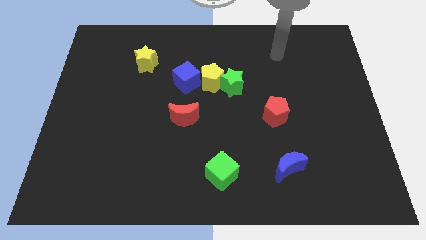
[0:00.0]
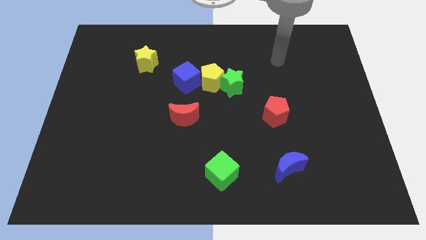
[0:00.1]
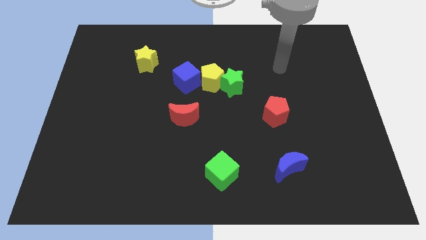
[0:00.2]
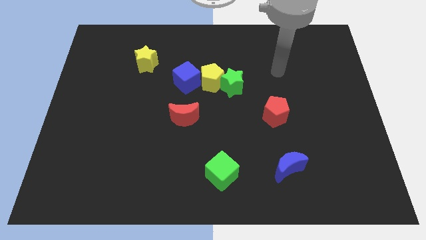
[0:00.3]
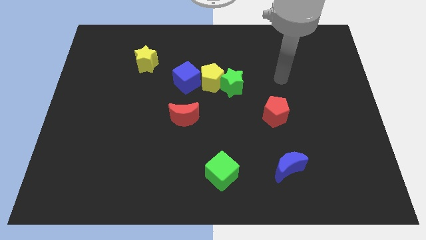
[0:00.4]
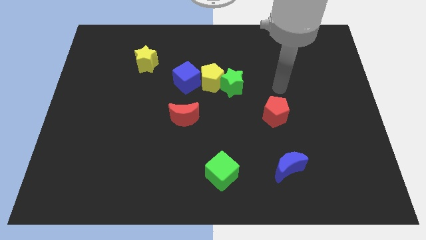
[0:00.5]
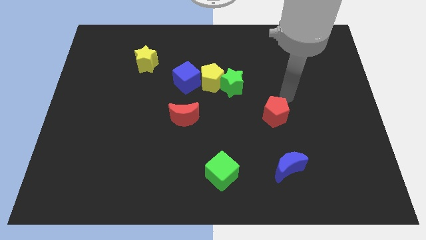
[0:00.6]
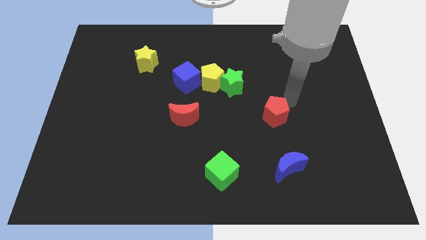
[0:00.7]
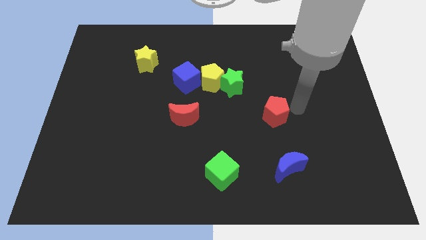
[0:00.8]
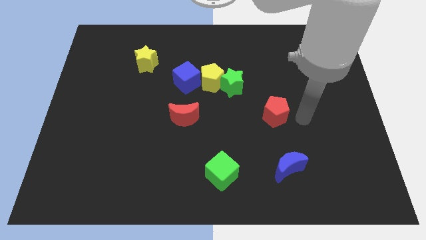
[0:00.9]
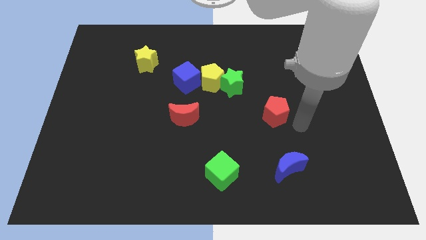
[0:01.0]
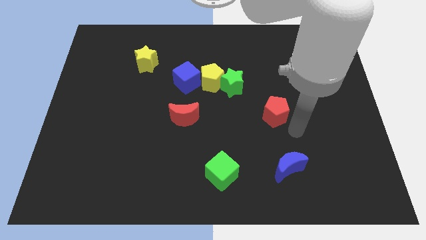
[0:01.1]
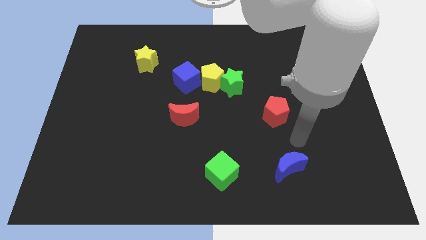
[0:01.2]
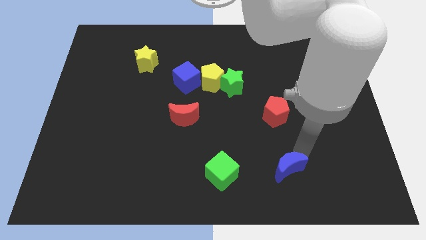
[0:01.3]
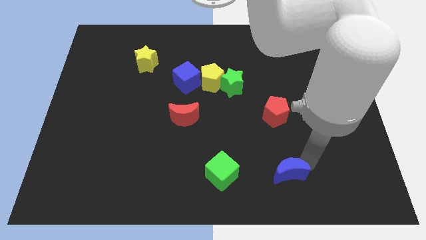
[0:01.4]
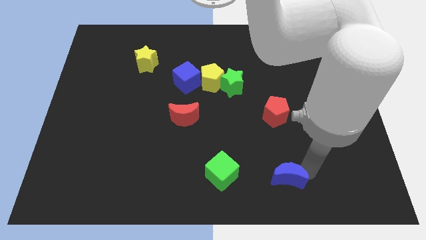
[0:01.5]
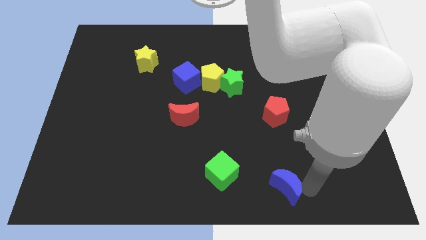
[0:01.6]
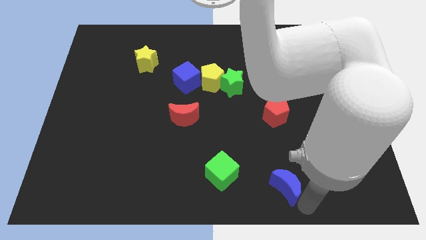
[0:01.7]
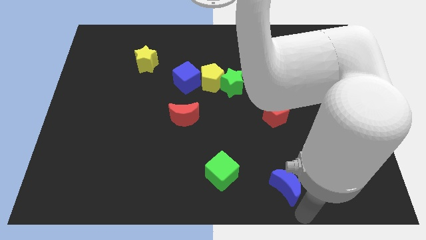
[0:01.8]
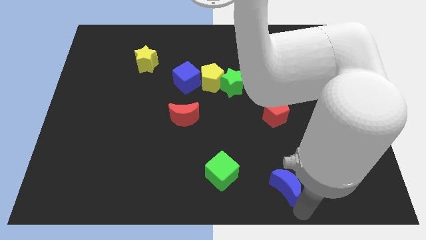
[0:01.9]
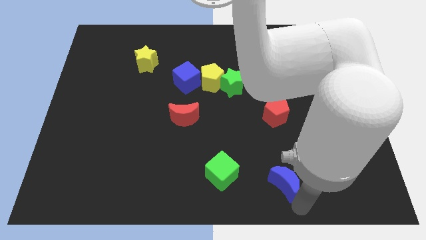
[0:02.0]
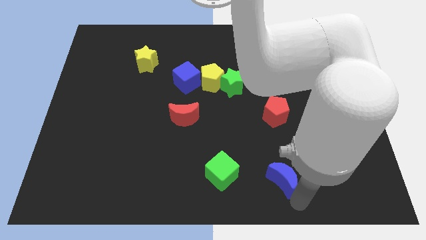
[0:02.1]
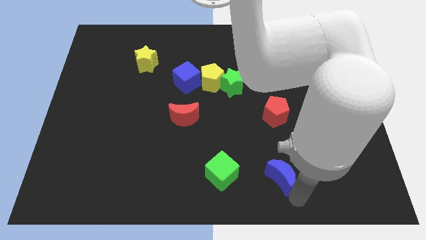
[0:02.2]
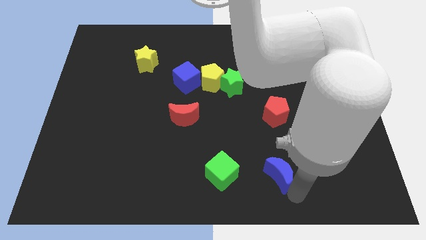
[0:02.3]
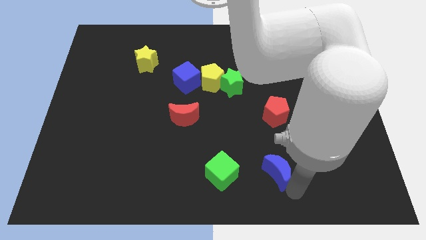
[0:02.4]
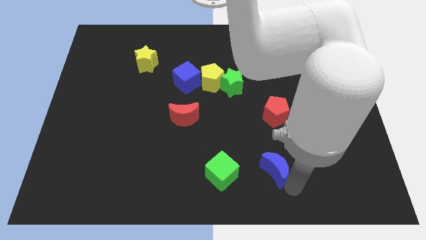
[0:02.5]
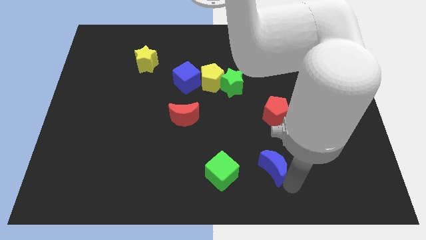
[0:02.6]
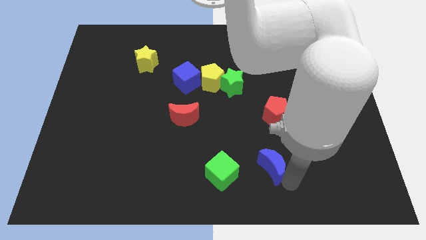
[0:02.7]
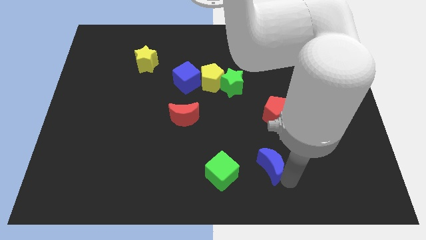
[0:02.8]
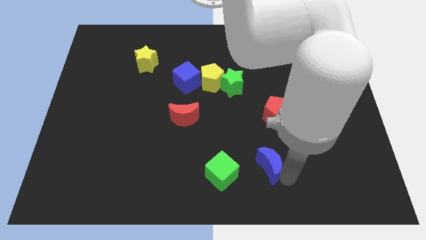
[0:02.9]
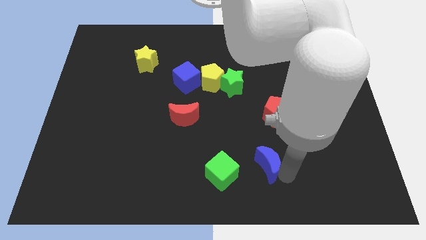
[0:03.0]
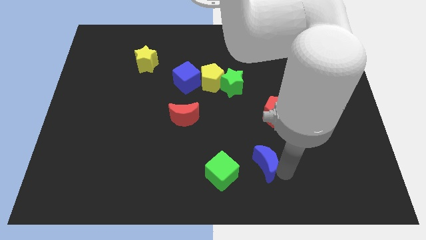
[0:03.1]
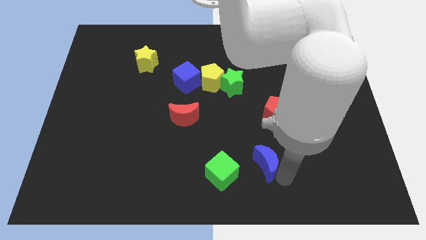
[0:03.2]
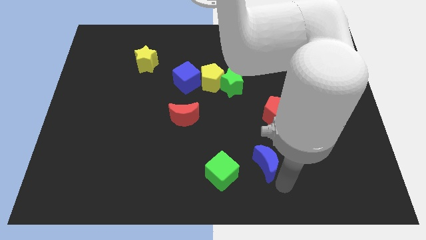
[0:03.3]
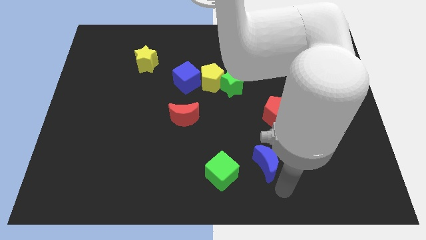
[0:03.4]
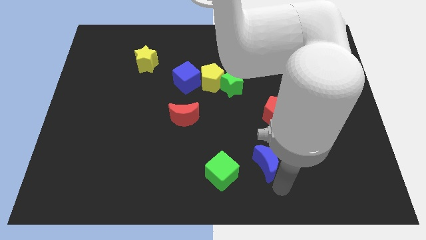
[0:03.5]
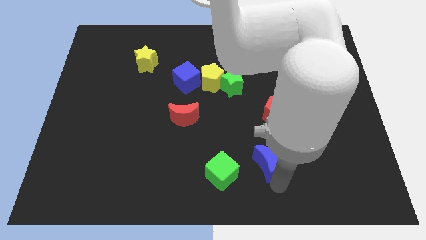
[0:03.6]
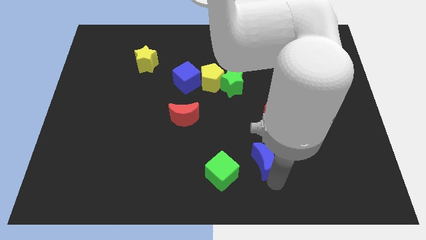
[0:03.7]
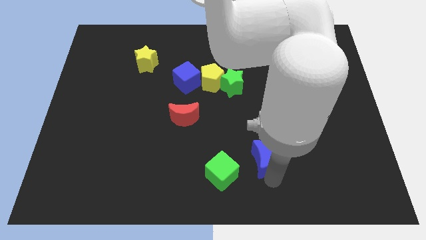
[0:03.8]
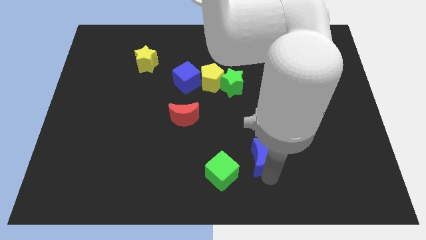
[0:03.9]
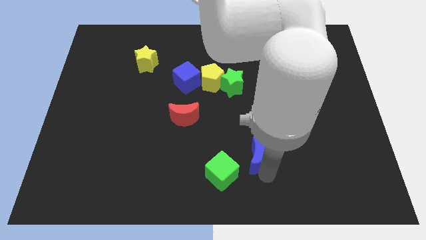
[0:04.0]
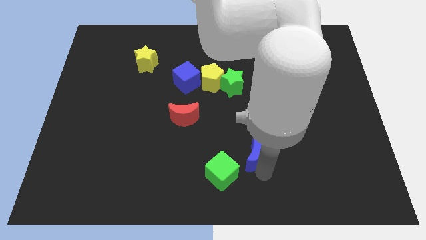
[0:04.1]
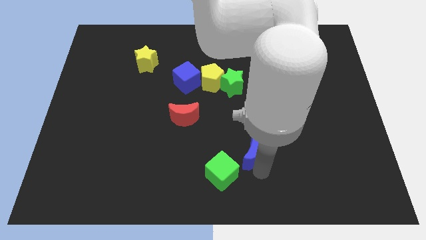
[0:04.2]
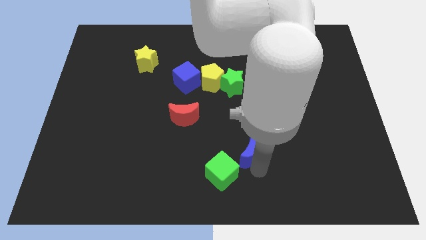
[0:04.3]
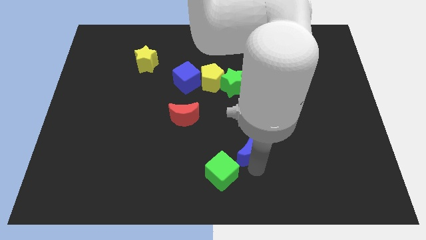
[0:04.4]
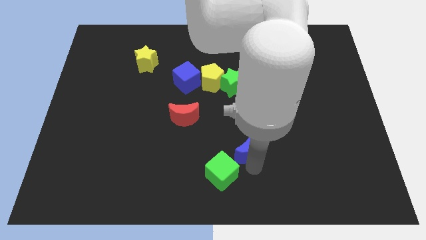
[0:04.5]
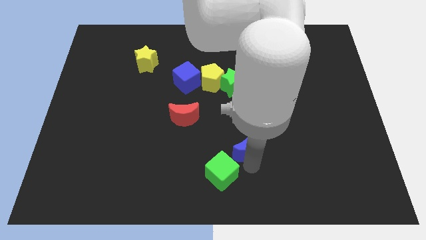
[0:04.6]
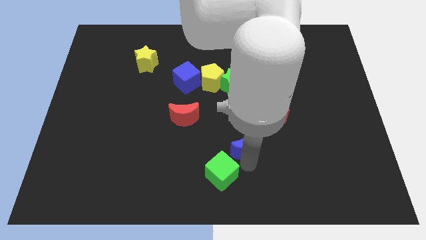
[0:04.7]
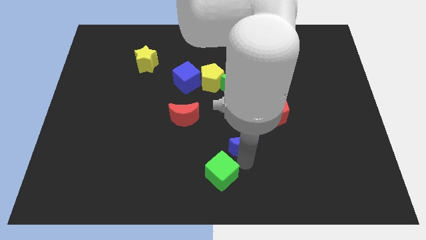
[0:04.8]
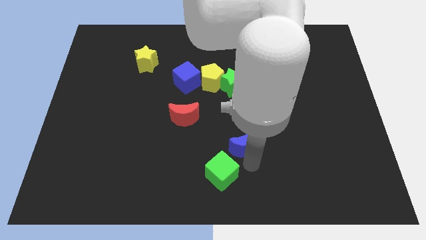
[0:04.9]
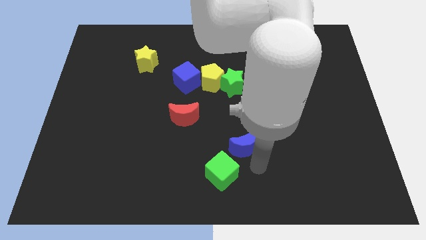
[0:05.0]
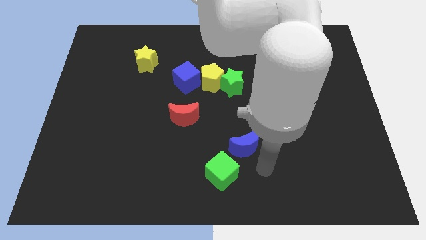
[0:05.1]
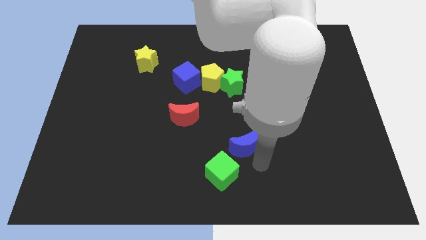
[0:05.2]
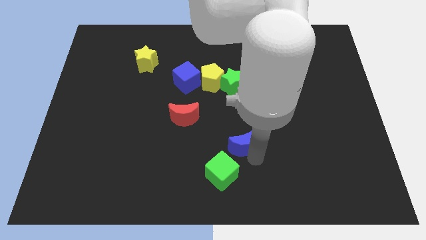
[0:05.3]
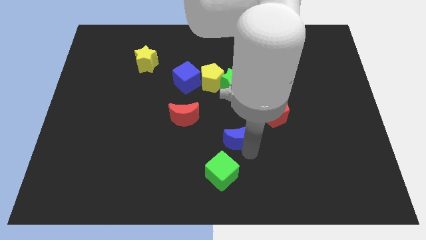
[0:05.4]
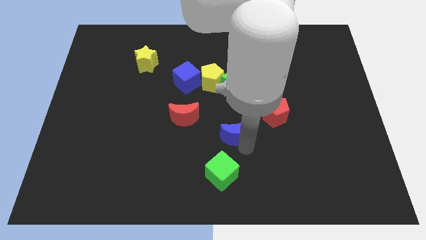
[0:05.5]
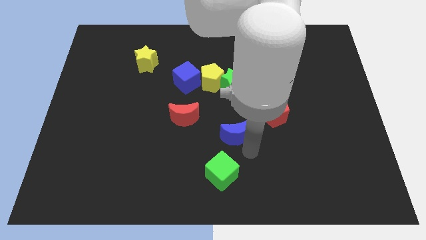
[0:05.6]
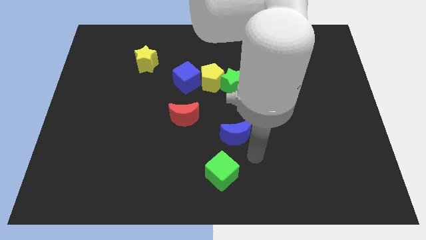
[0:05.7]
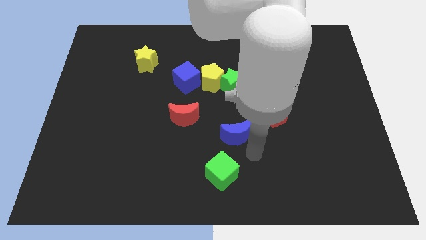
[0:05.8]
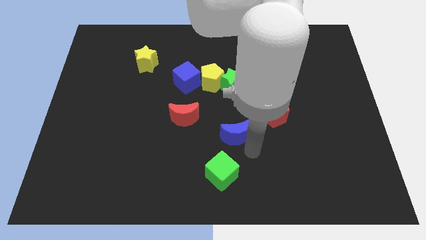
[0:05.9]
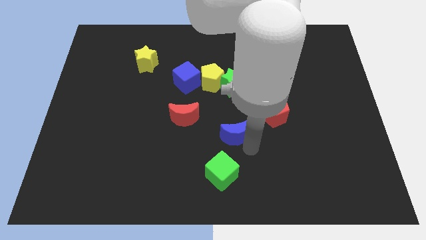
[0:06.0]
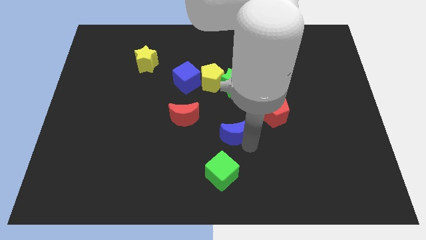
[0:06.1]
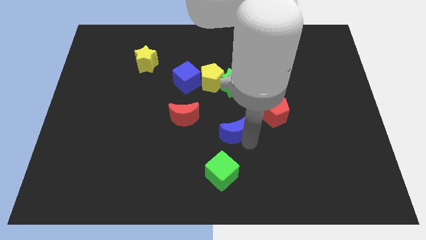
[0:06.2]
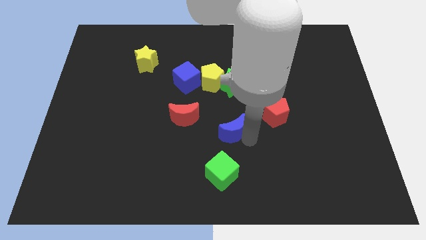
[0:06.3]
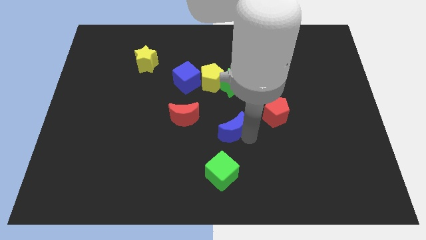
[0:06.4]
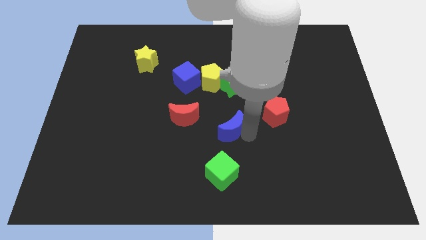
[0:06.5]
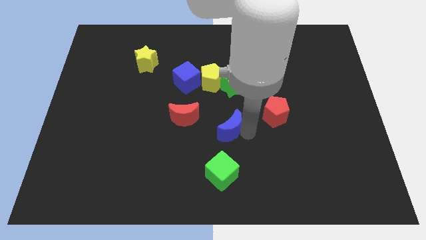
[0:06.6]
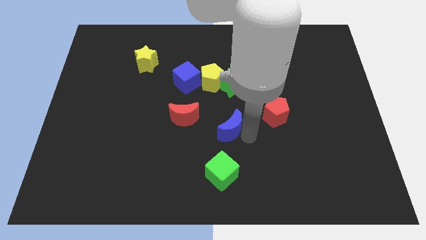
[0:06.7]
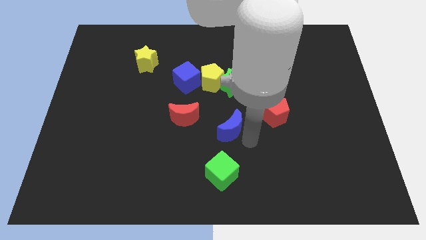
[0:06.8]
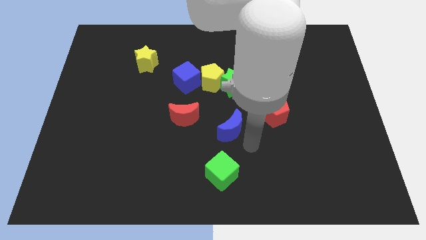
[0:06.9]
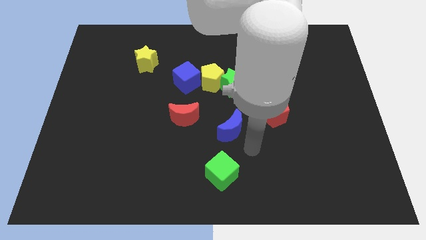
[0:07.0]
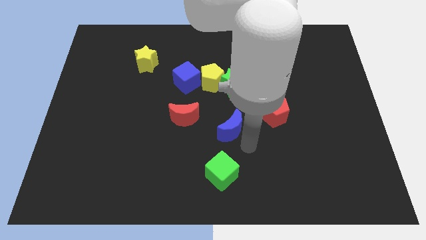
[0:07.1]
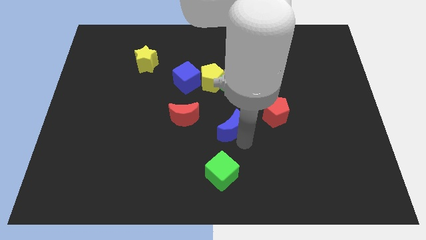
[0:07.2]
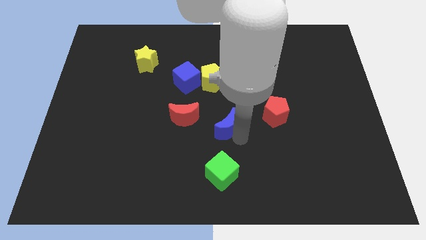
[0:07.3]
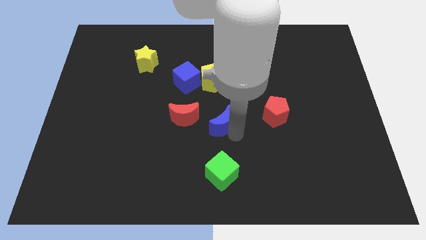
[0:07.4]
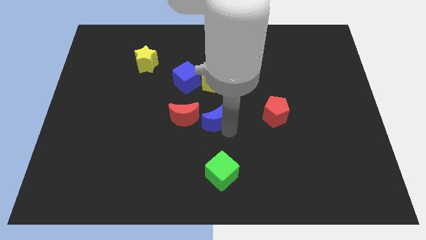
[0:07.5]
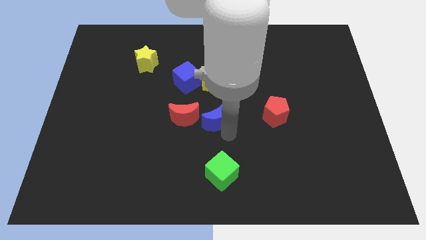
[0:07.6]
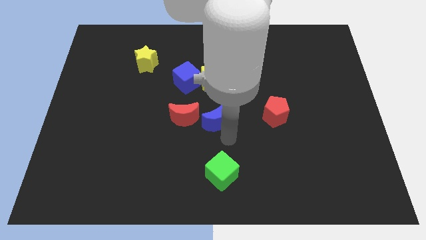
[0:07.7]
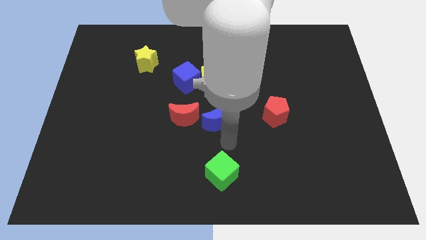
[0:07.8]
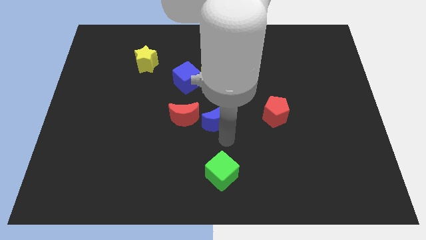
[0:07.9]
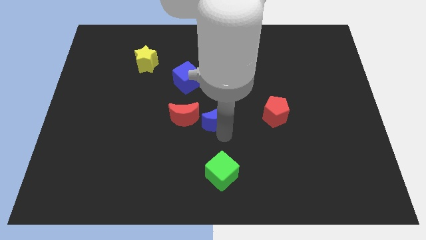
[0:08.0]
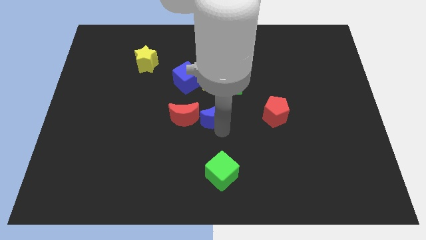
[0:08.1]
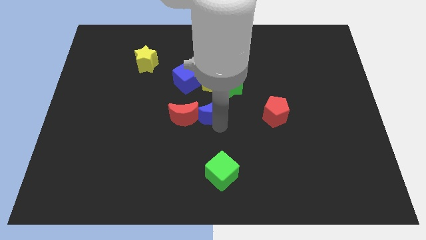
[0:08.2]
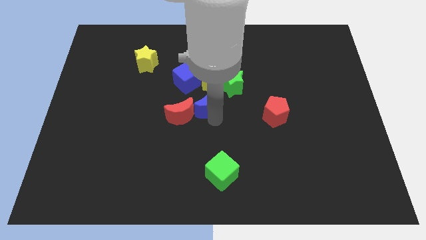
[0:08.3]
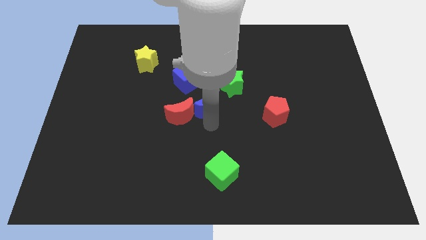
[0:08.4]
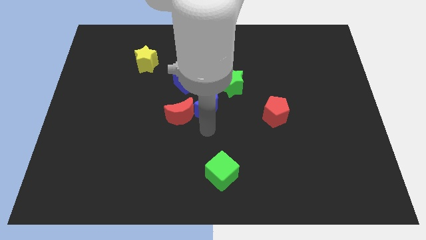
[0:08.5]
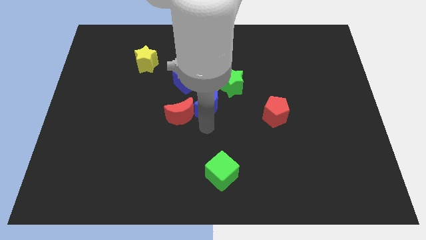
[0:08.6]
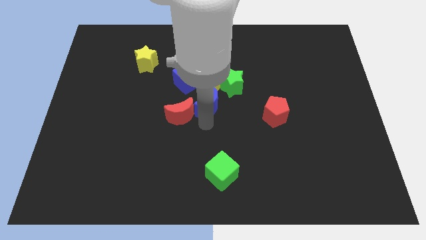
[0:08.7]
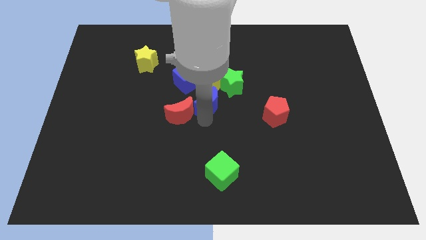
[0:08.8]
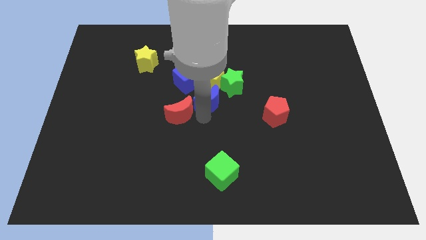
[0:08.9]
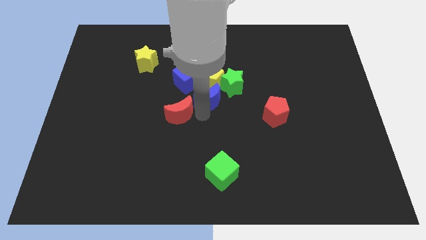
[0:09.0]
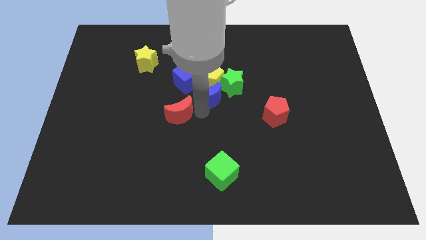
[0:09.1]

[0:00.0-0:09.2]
slide the blue moon to the yellow pentagon
